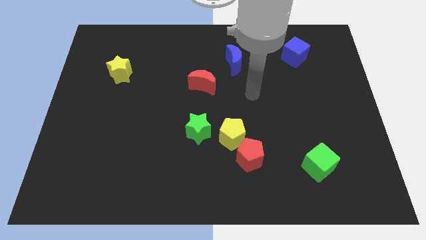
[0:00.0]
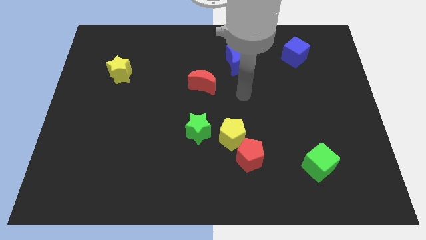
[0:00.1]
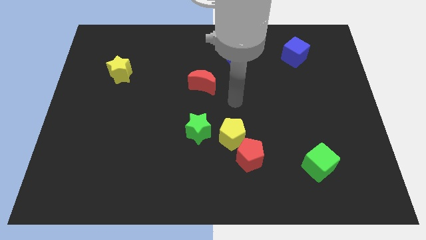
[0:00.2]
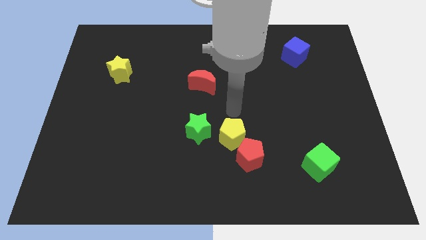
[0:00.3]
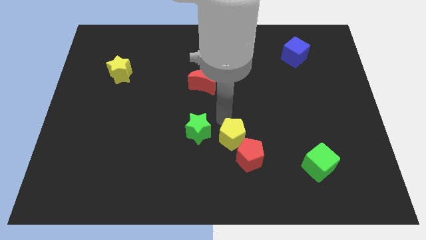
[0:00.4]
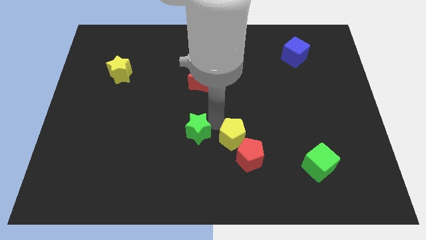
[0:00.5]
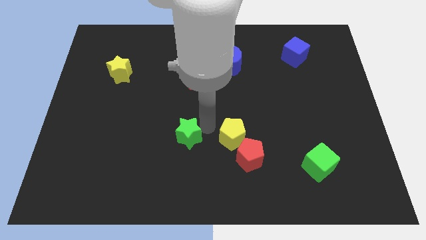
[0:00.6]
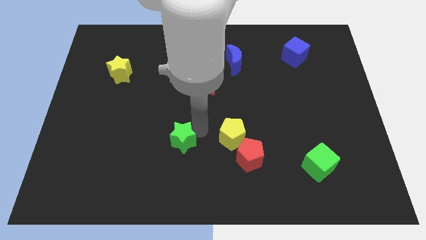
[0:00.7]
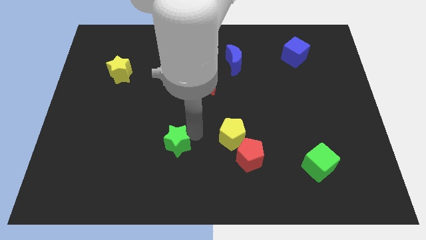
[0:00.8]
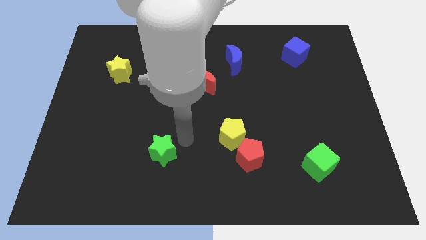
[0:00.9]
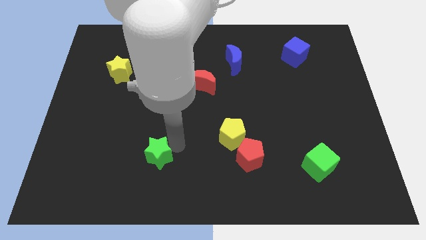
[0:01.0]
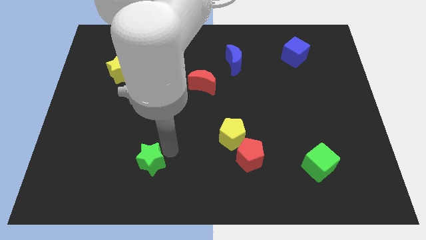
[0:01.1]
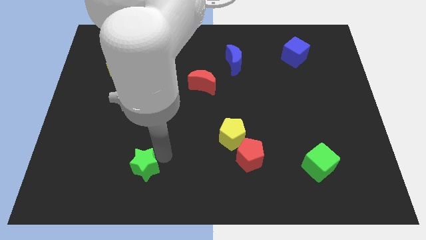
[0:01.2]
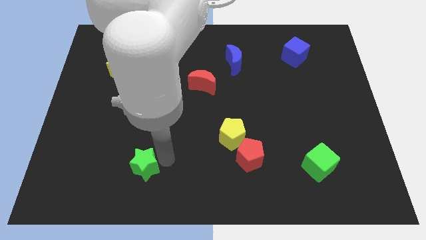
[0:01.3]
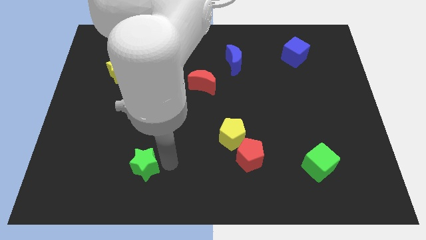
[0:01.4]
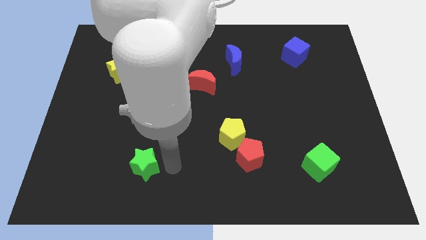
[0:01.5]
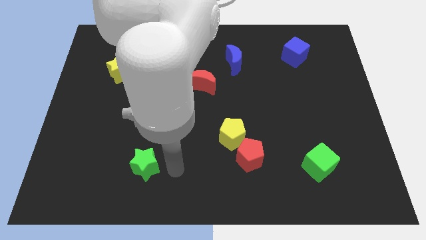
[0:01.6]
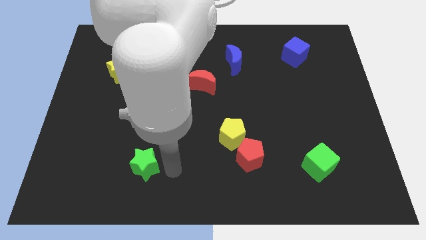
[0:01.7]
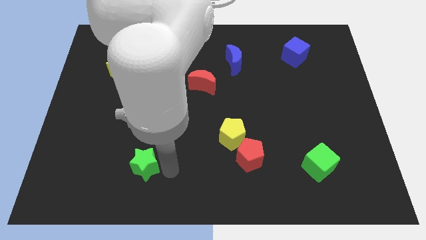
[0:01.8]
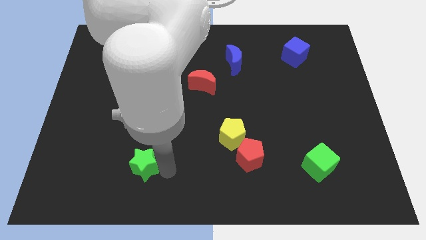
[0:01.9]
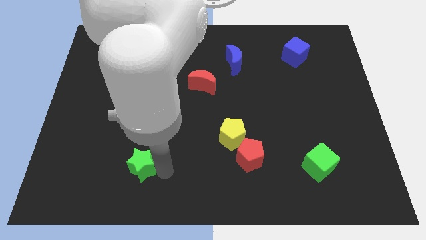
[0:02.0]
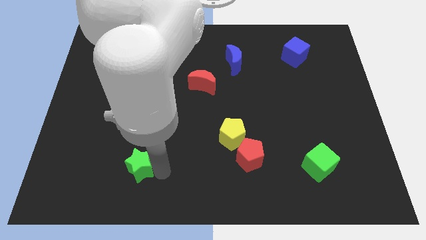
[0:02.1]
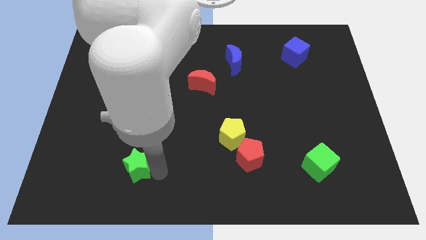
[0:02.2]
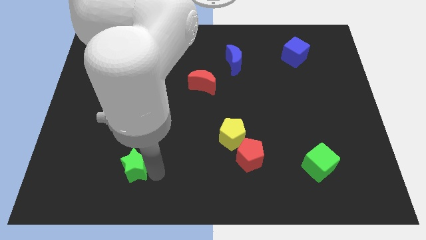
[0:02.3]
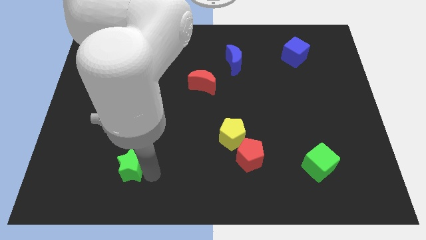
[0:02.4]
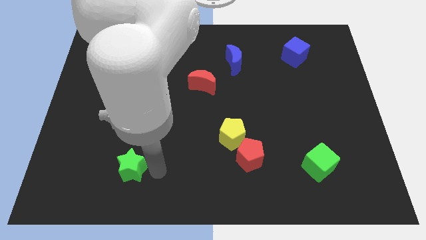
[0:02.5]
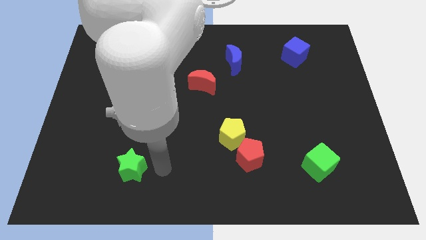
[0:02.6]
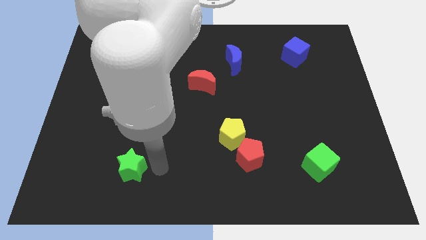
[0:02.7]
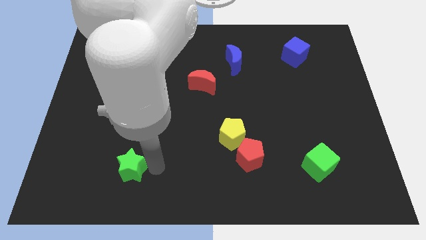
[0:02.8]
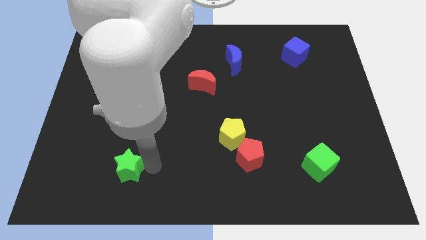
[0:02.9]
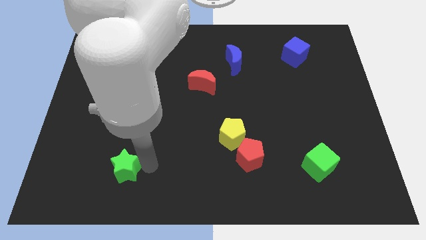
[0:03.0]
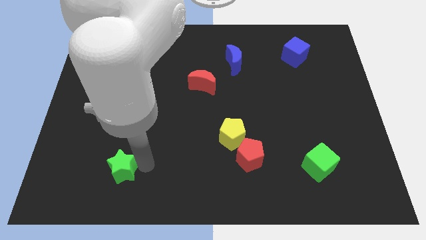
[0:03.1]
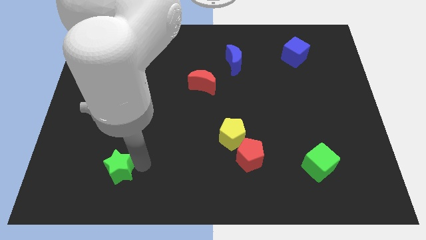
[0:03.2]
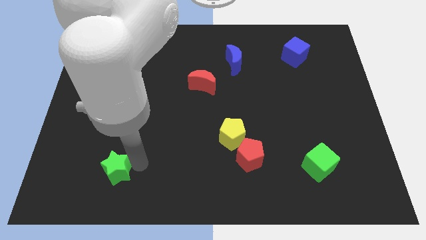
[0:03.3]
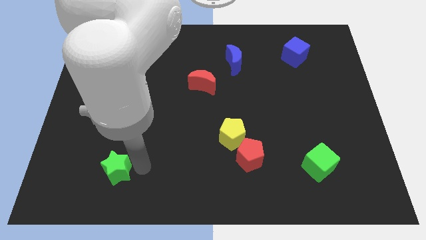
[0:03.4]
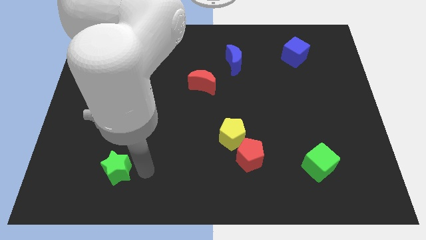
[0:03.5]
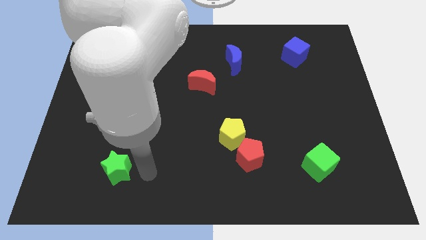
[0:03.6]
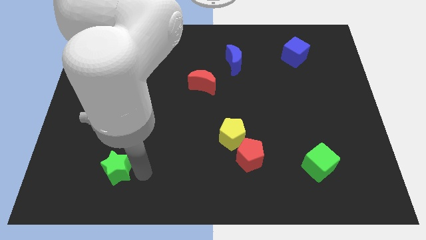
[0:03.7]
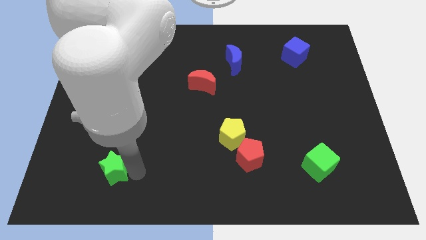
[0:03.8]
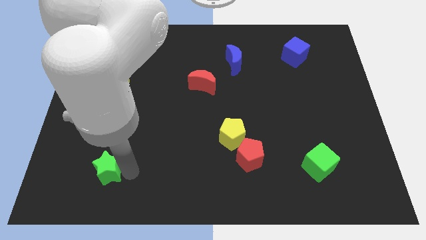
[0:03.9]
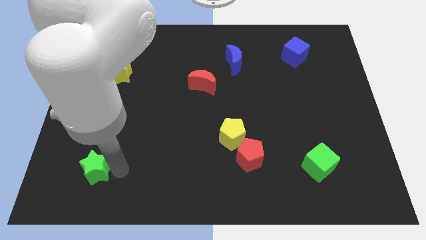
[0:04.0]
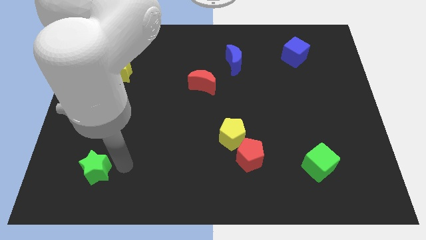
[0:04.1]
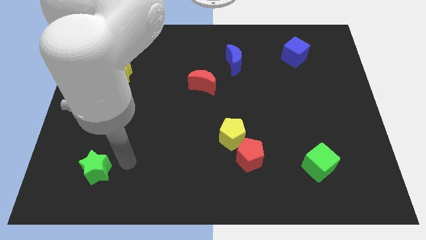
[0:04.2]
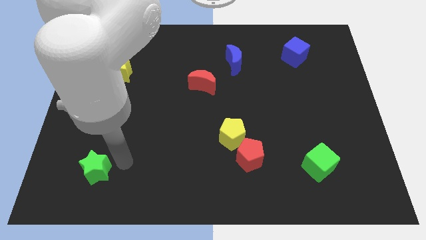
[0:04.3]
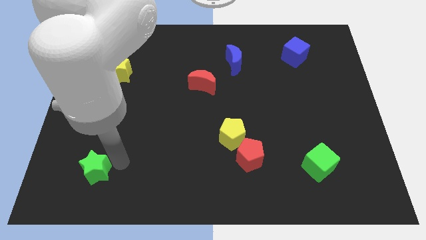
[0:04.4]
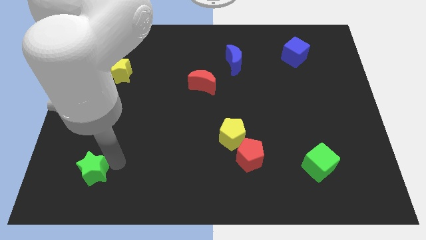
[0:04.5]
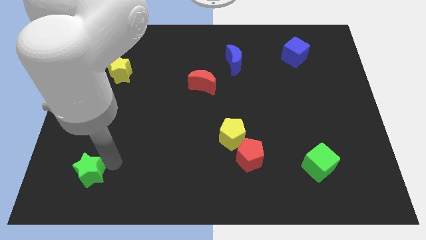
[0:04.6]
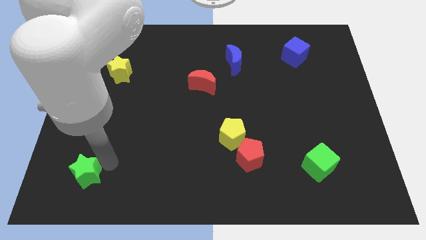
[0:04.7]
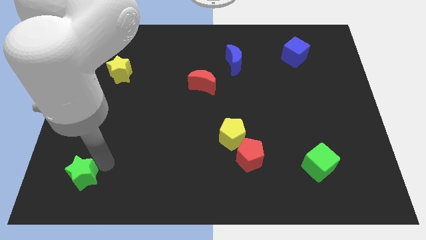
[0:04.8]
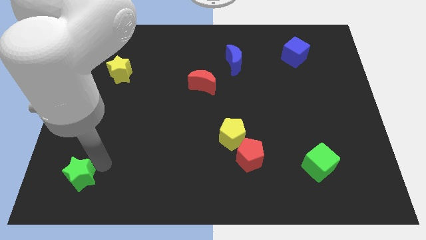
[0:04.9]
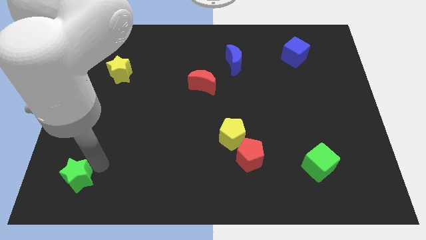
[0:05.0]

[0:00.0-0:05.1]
move the green star to the lower left corner

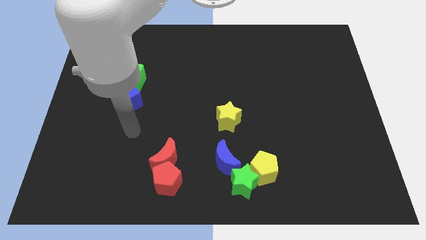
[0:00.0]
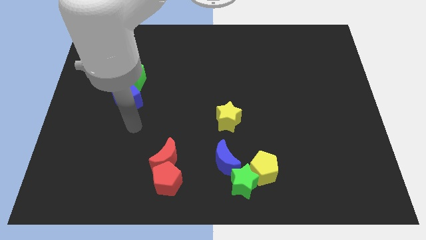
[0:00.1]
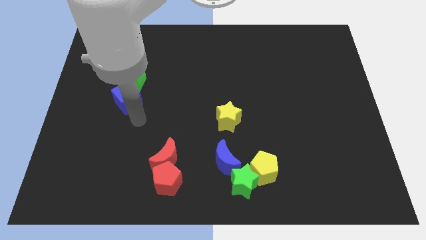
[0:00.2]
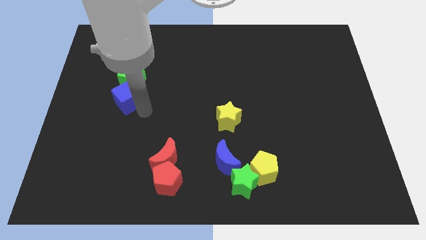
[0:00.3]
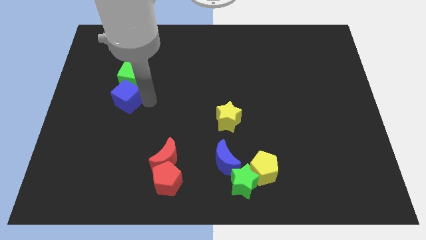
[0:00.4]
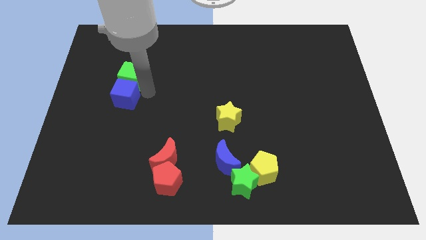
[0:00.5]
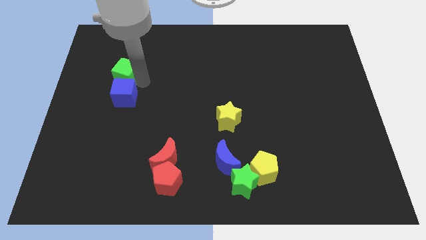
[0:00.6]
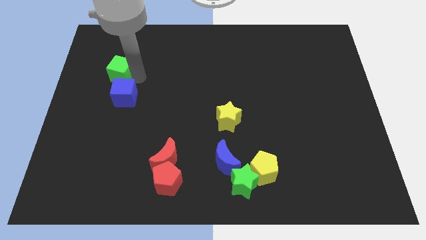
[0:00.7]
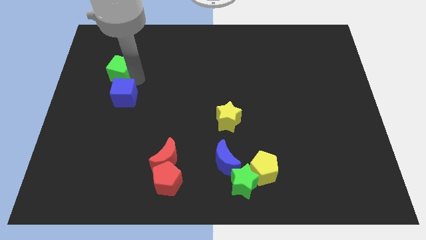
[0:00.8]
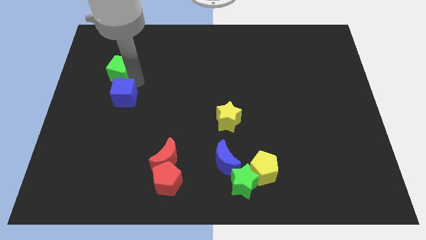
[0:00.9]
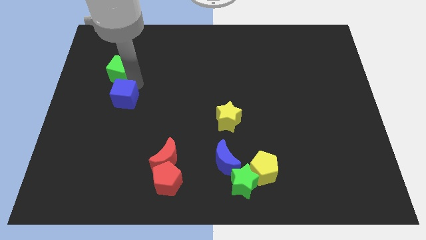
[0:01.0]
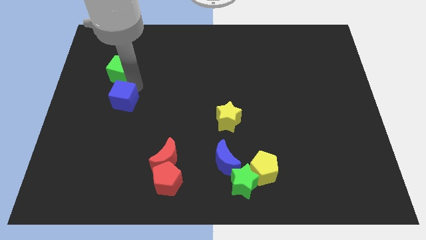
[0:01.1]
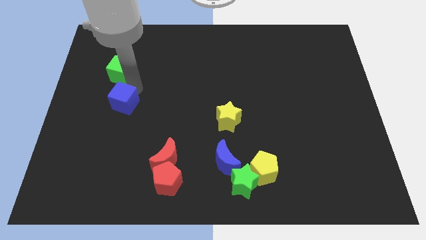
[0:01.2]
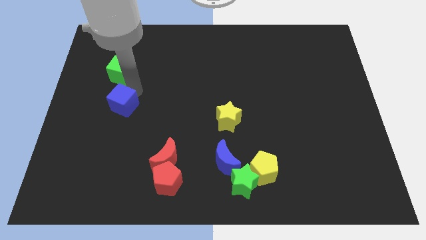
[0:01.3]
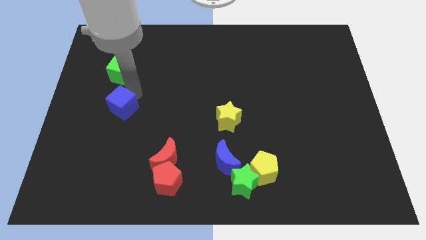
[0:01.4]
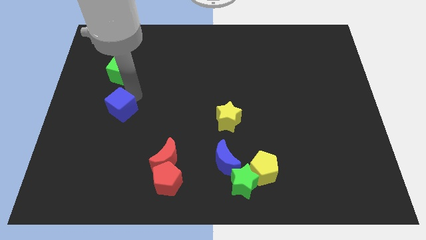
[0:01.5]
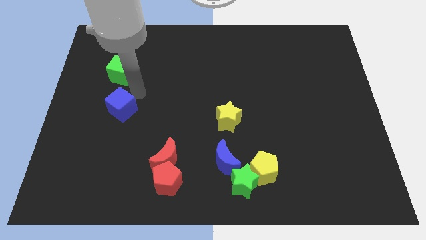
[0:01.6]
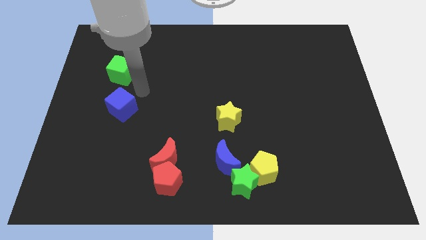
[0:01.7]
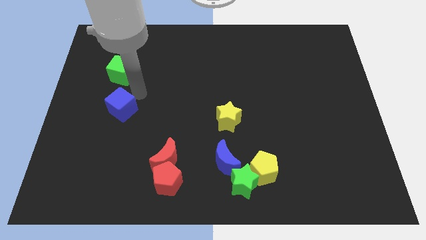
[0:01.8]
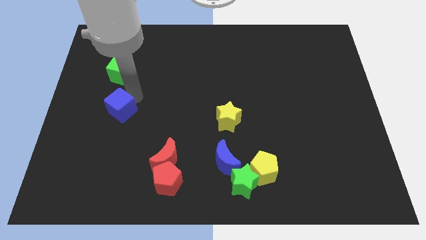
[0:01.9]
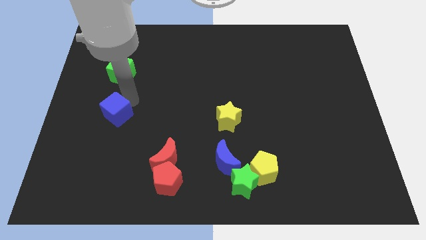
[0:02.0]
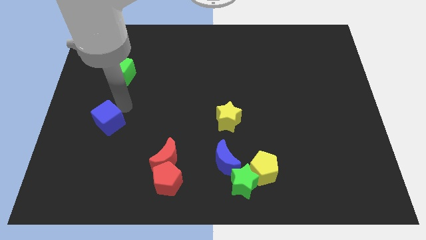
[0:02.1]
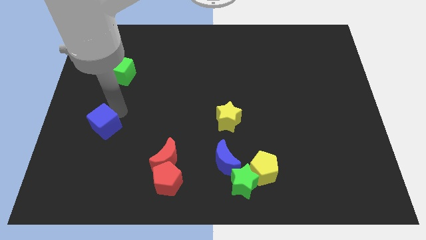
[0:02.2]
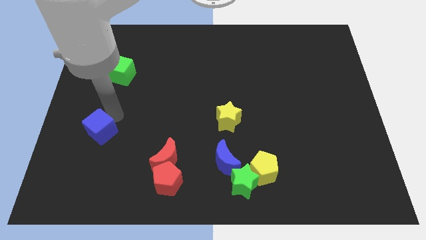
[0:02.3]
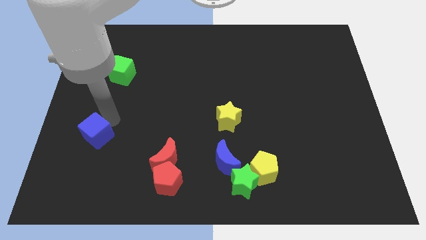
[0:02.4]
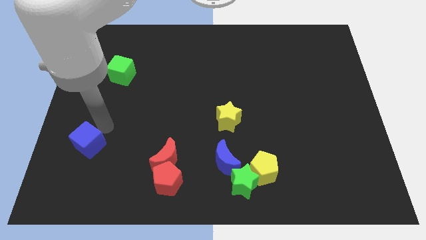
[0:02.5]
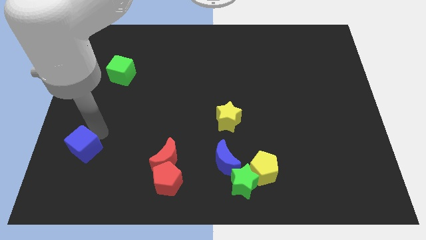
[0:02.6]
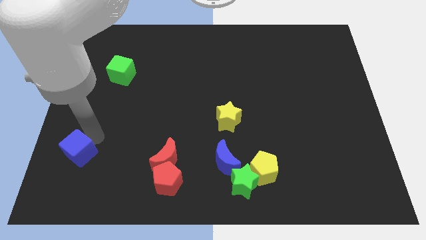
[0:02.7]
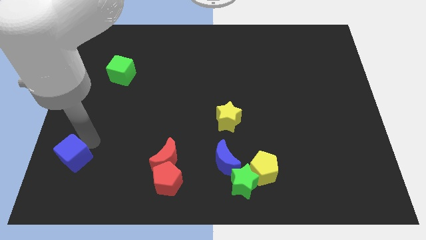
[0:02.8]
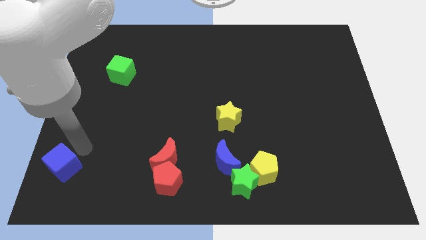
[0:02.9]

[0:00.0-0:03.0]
push the blue cube to the bottom left corner
